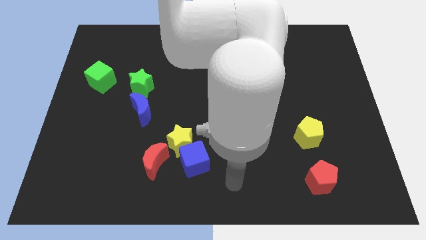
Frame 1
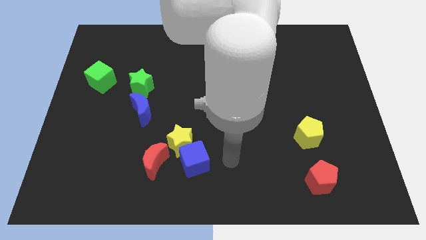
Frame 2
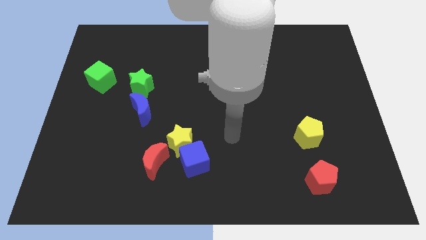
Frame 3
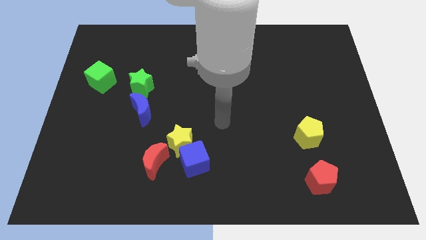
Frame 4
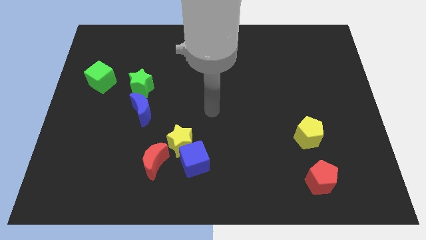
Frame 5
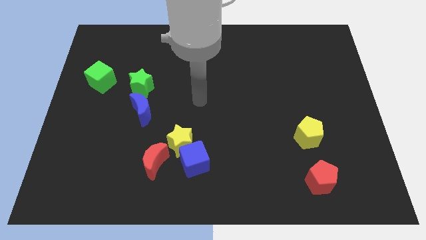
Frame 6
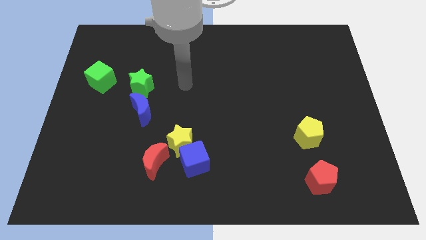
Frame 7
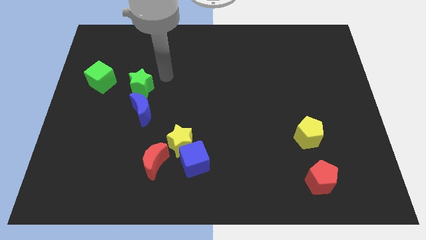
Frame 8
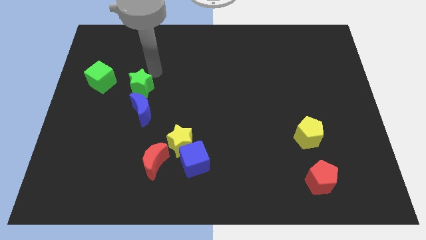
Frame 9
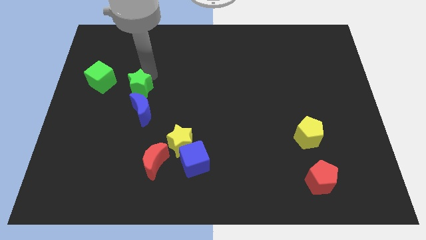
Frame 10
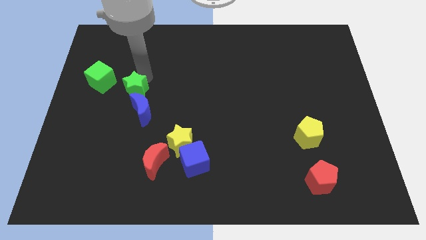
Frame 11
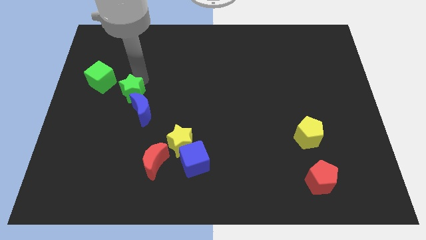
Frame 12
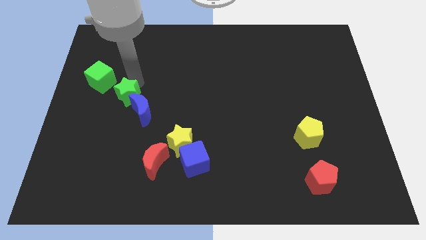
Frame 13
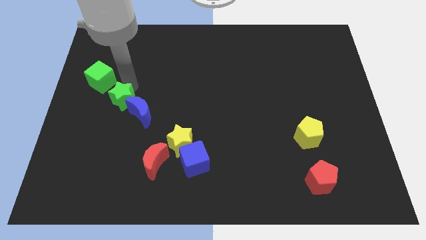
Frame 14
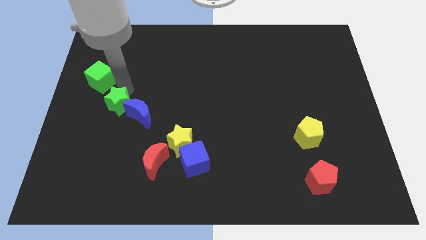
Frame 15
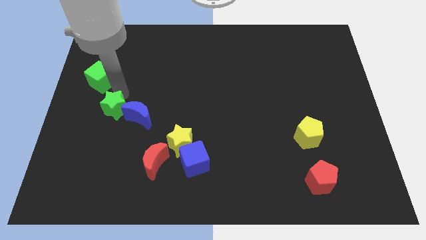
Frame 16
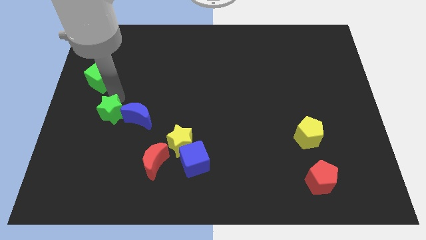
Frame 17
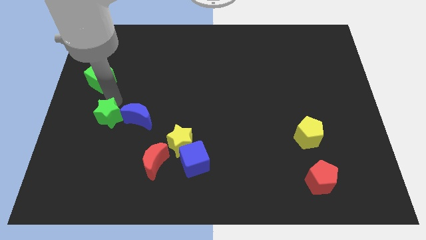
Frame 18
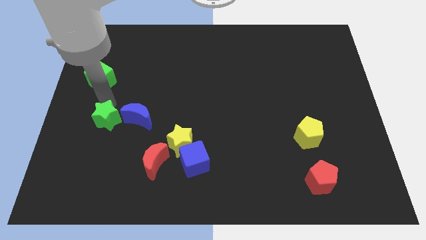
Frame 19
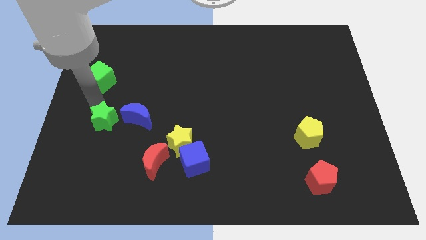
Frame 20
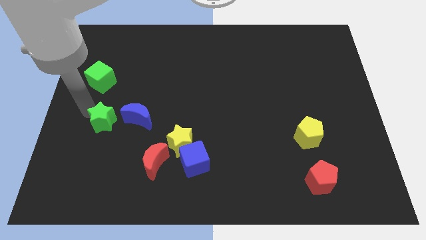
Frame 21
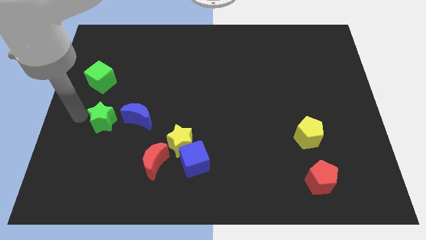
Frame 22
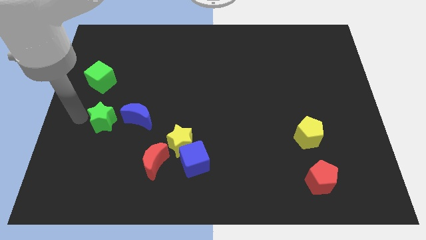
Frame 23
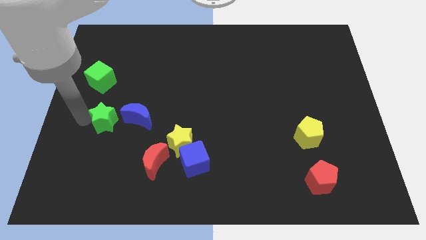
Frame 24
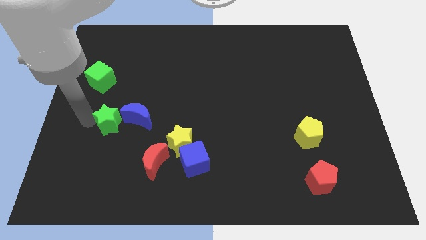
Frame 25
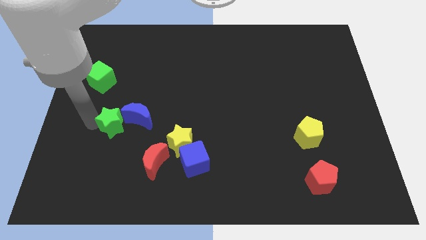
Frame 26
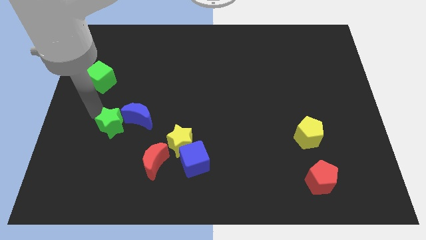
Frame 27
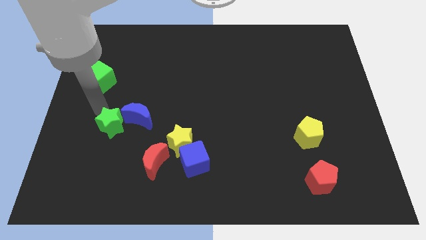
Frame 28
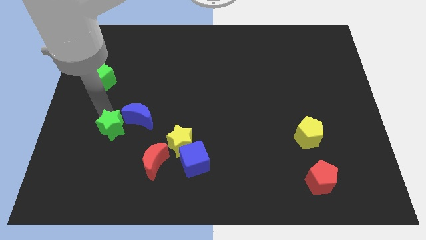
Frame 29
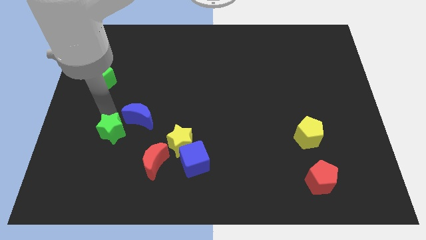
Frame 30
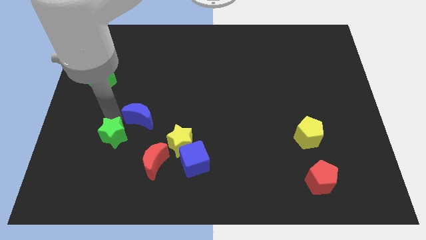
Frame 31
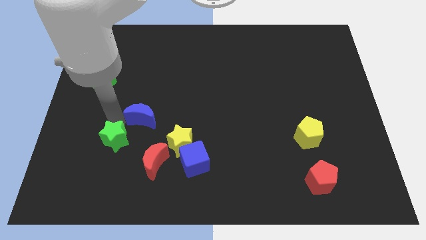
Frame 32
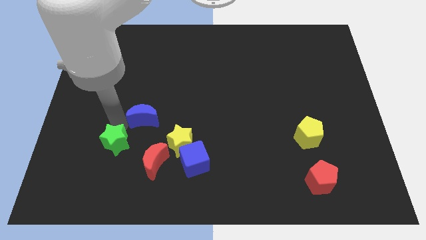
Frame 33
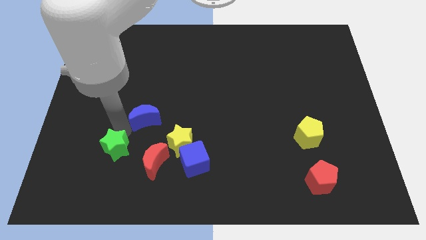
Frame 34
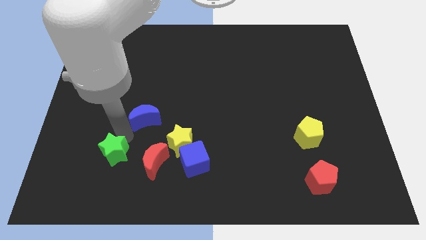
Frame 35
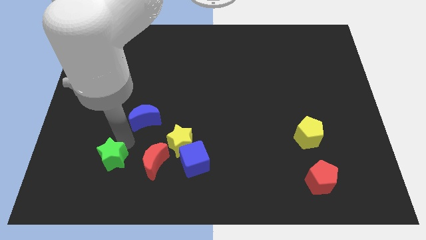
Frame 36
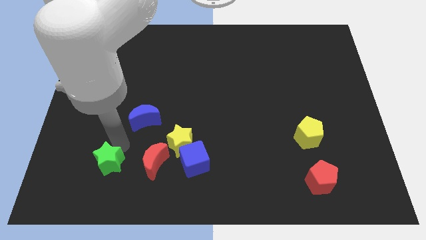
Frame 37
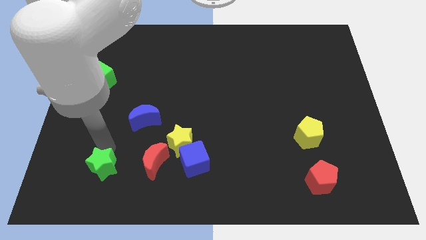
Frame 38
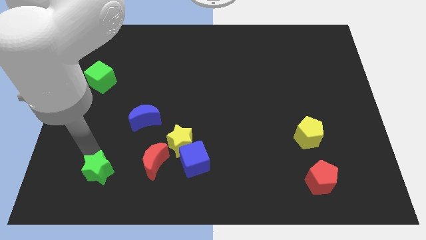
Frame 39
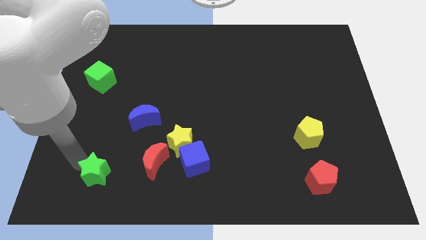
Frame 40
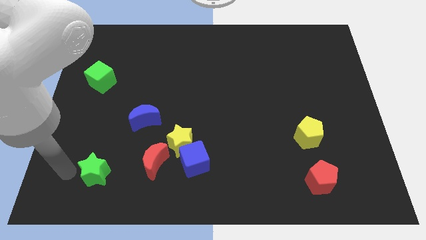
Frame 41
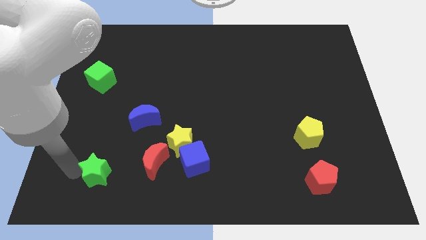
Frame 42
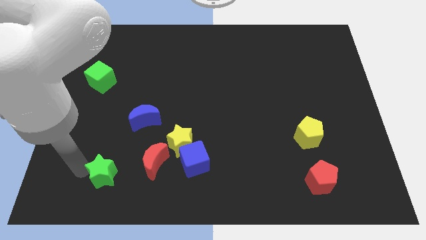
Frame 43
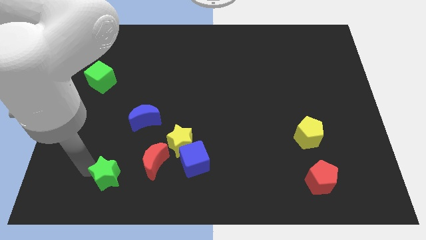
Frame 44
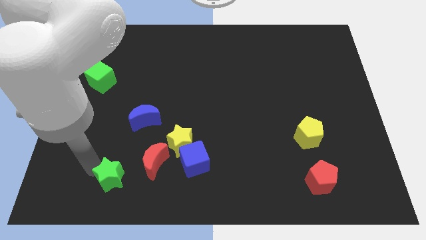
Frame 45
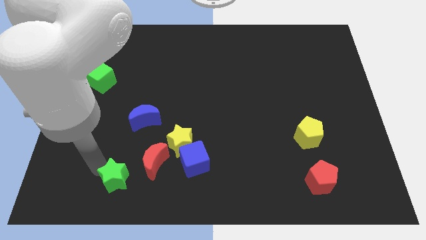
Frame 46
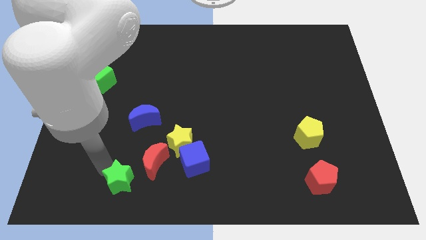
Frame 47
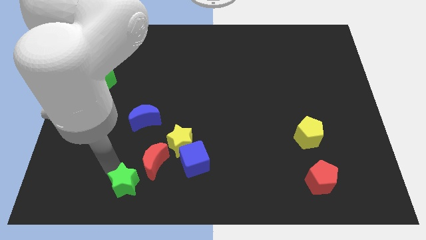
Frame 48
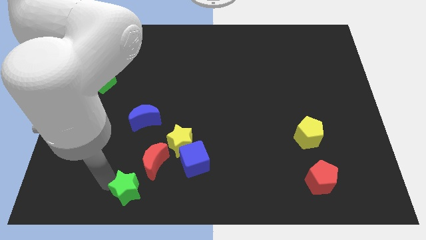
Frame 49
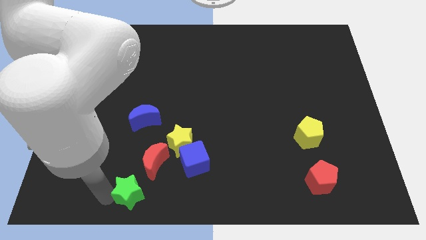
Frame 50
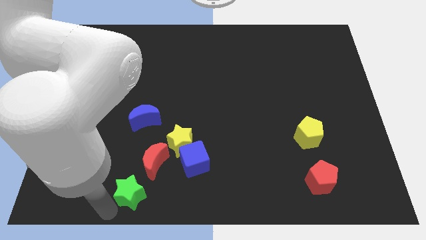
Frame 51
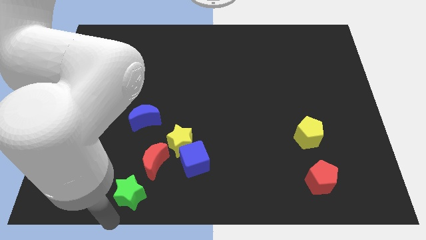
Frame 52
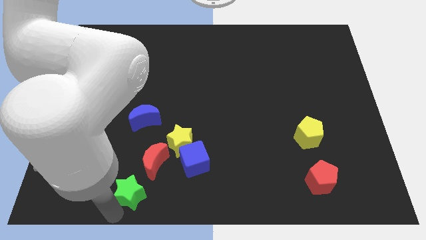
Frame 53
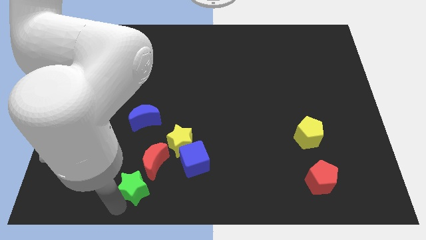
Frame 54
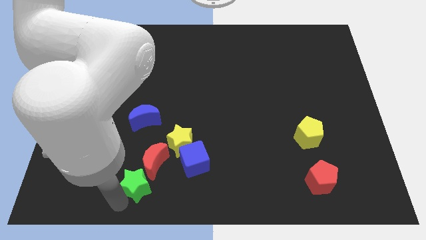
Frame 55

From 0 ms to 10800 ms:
move the green star diagonally down and to the left of the yellow star

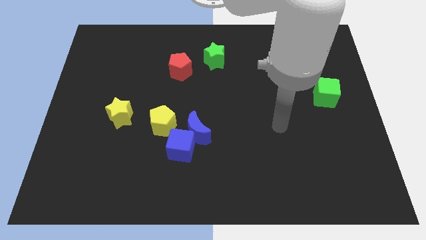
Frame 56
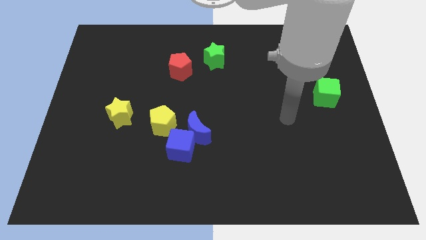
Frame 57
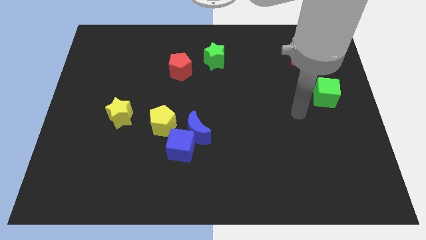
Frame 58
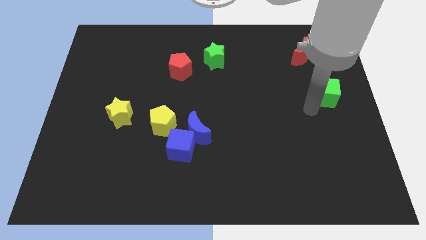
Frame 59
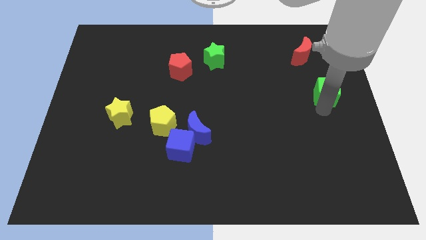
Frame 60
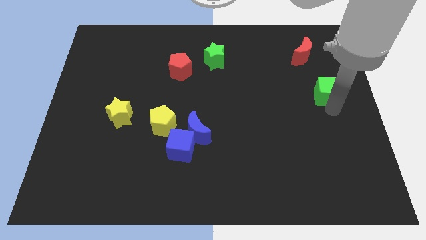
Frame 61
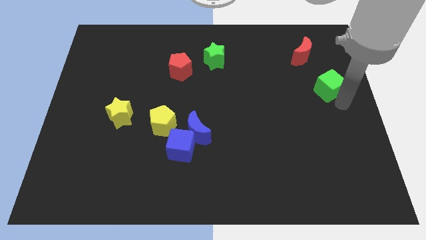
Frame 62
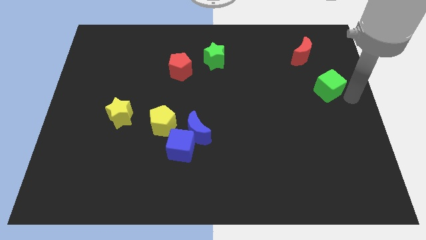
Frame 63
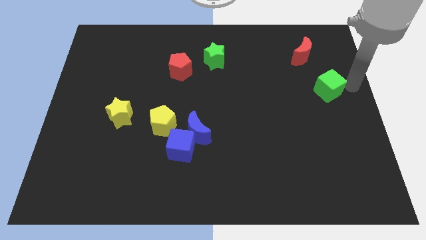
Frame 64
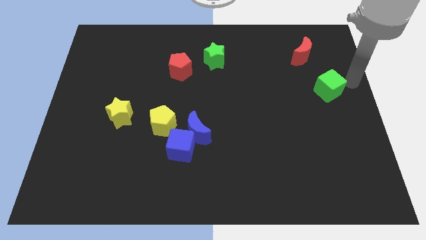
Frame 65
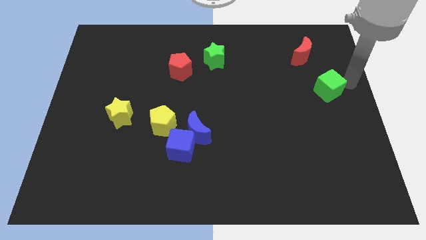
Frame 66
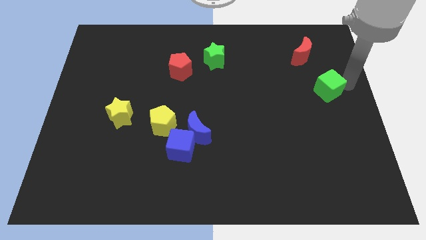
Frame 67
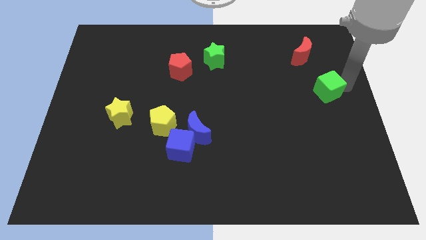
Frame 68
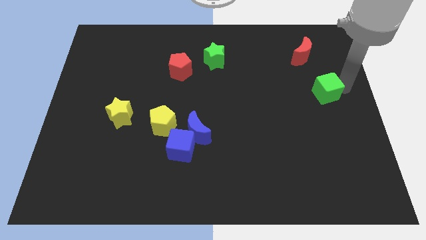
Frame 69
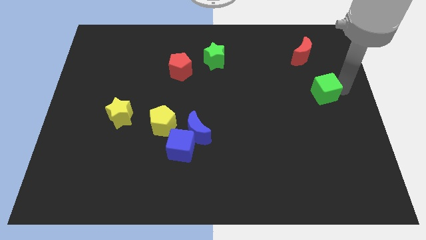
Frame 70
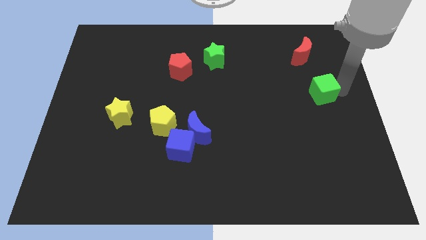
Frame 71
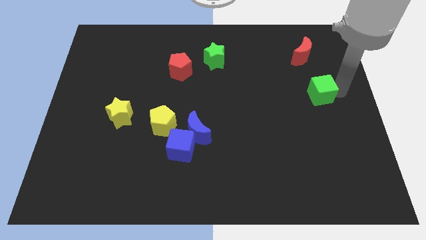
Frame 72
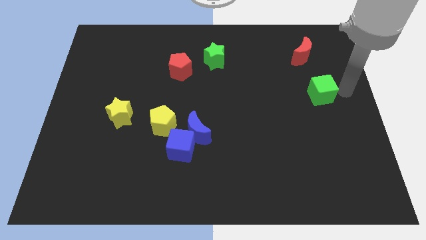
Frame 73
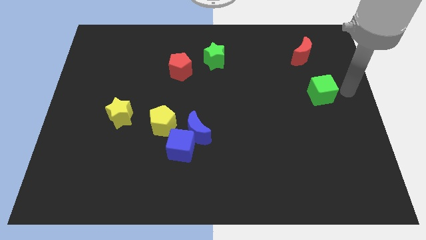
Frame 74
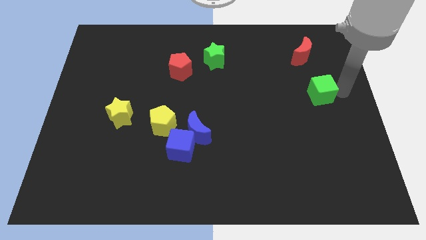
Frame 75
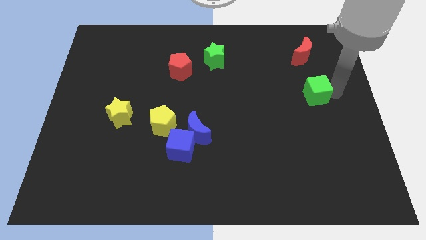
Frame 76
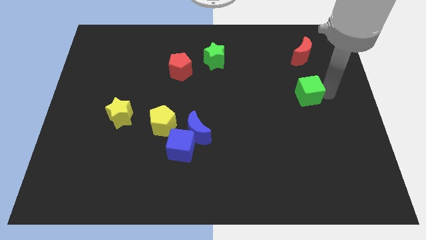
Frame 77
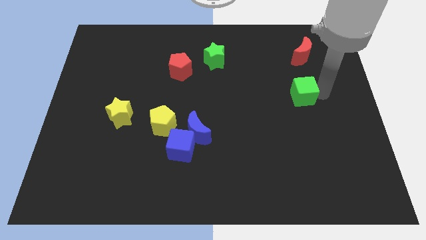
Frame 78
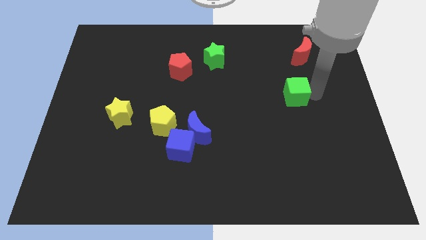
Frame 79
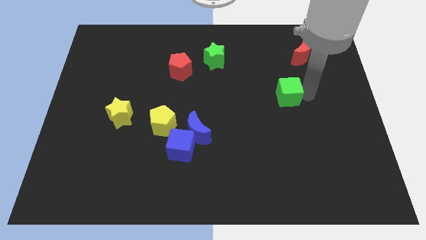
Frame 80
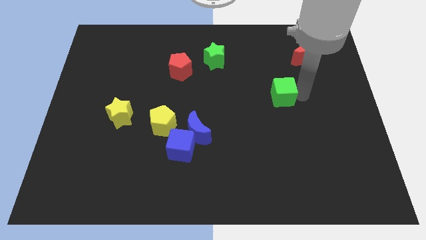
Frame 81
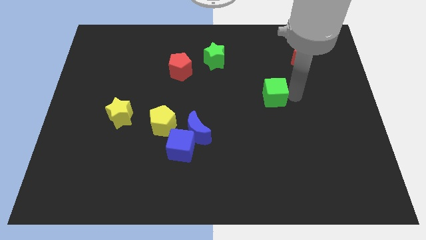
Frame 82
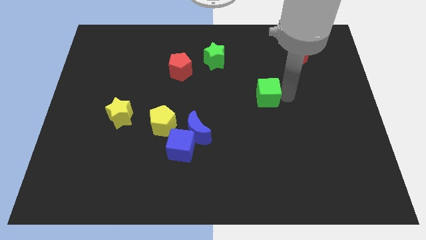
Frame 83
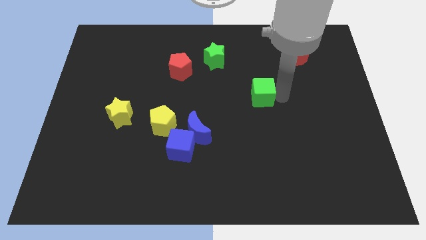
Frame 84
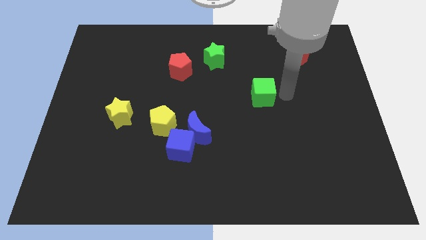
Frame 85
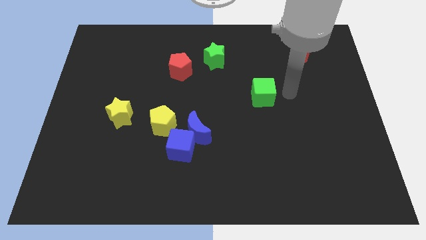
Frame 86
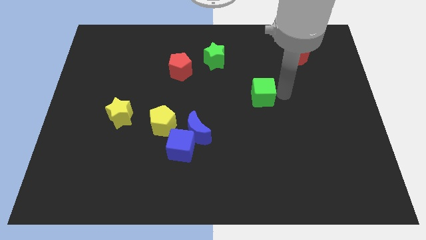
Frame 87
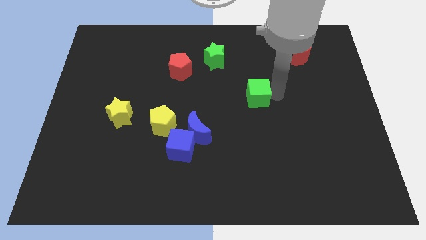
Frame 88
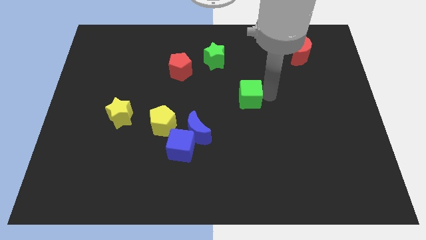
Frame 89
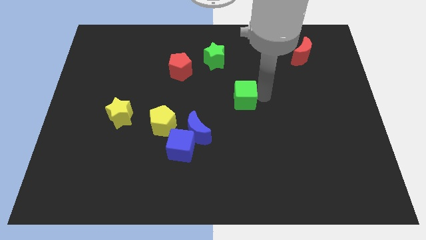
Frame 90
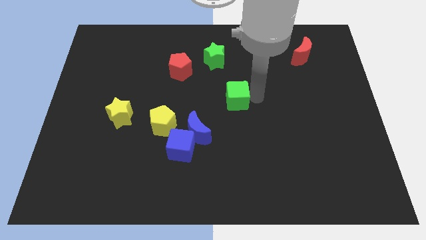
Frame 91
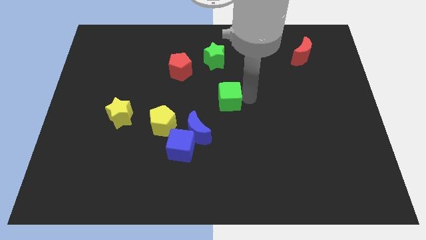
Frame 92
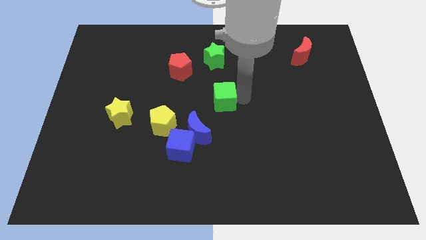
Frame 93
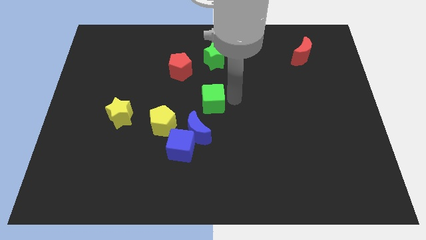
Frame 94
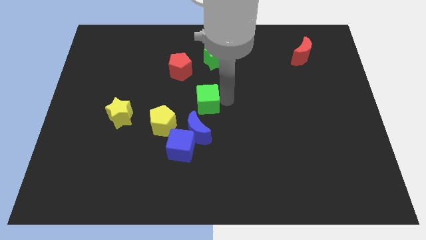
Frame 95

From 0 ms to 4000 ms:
push the green cube diagonally up and to the right of the yellow pentagon
